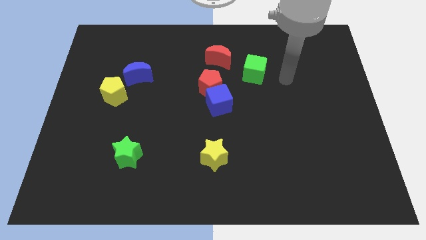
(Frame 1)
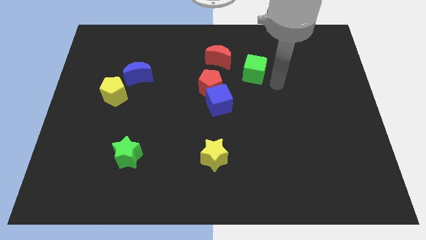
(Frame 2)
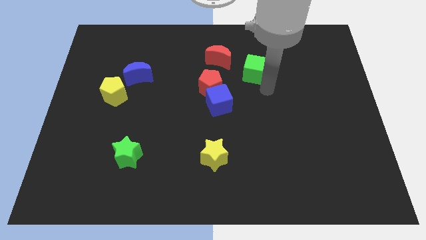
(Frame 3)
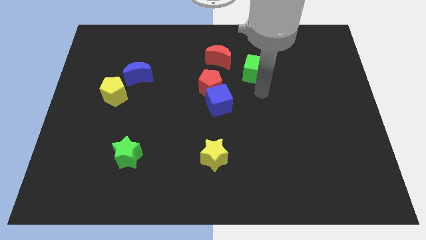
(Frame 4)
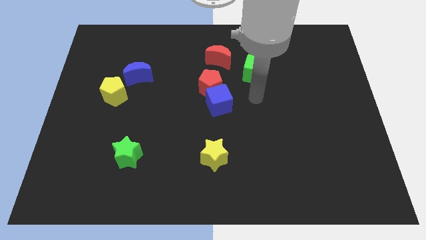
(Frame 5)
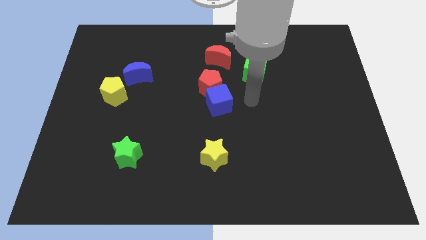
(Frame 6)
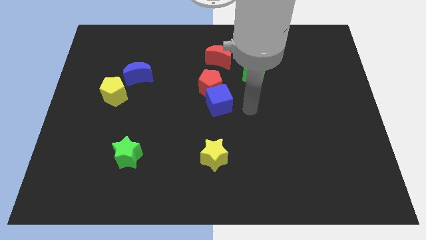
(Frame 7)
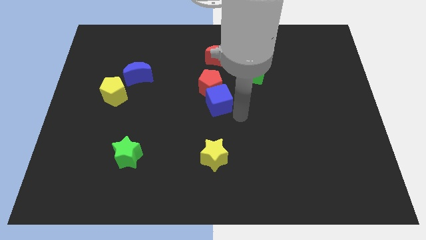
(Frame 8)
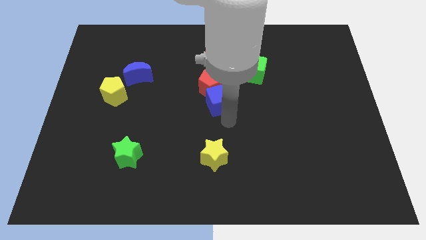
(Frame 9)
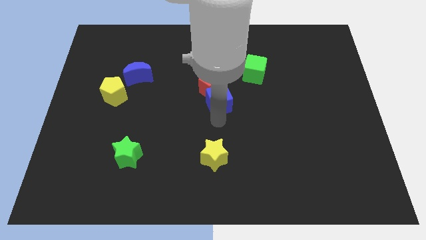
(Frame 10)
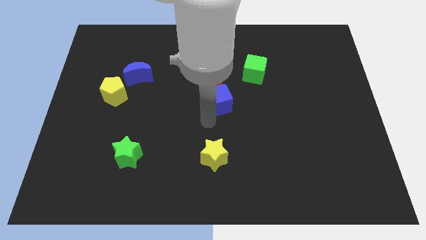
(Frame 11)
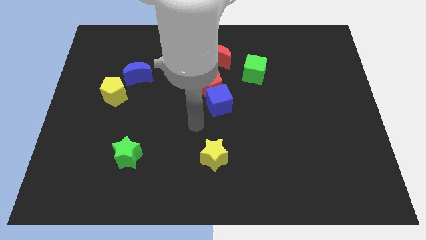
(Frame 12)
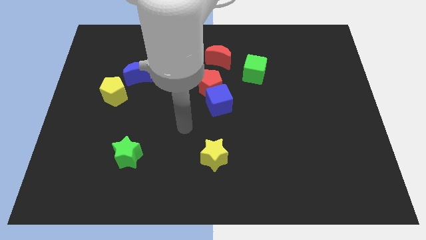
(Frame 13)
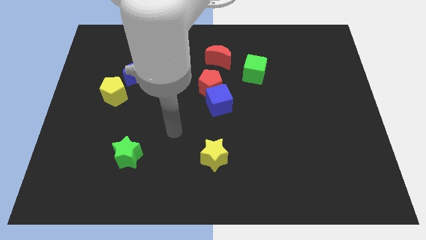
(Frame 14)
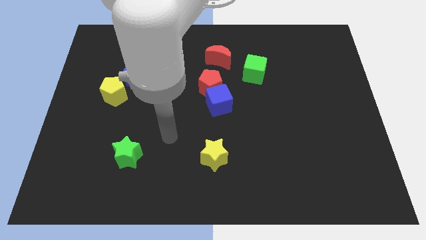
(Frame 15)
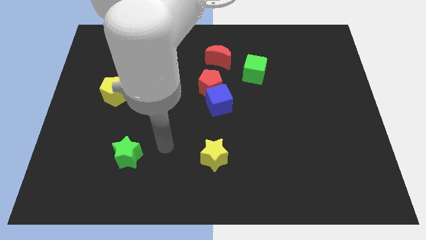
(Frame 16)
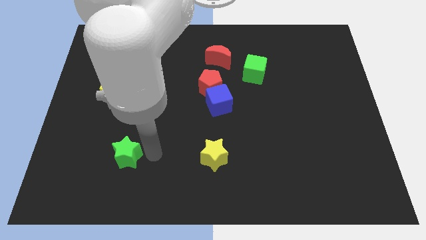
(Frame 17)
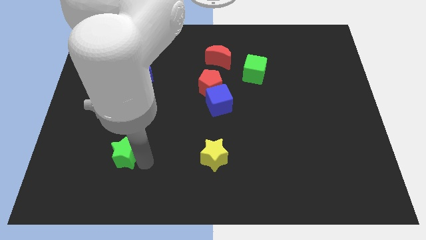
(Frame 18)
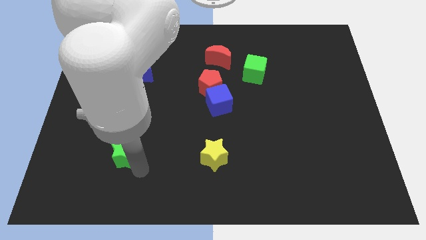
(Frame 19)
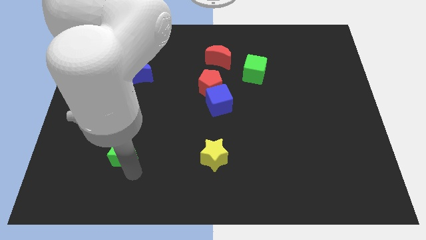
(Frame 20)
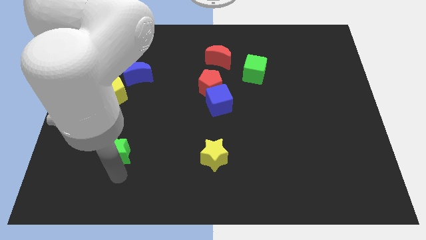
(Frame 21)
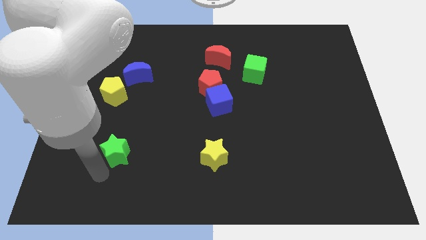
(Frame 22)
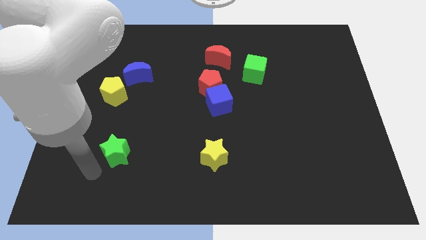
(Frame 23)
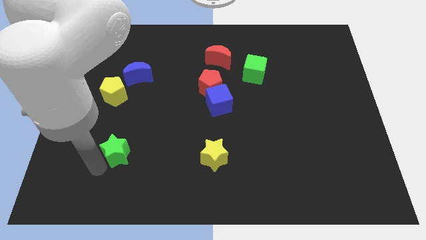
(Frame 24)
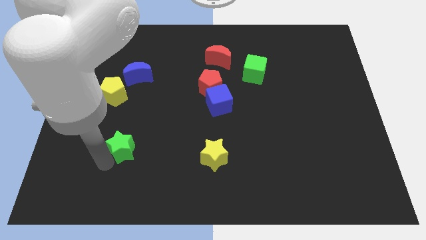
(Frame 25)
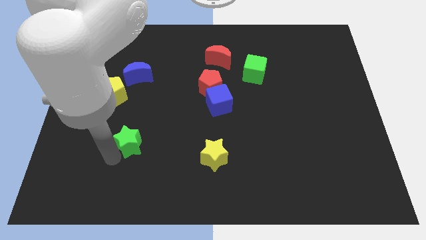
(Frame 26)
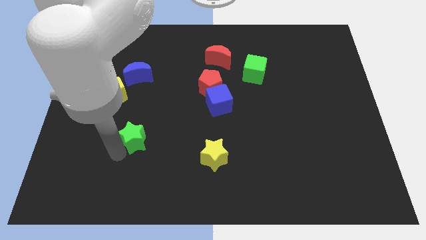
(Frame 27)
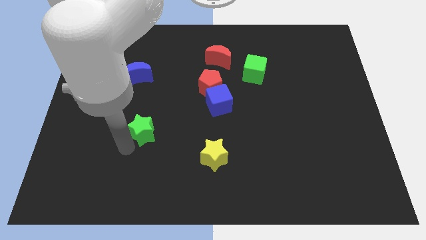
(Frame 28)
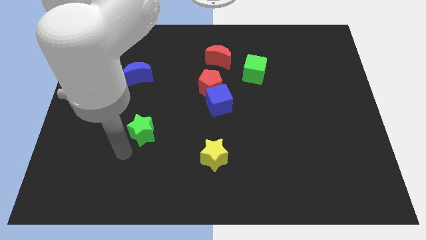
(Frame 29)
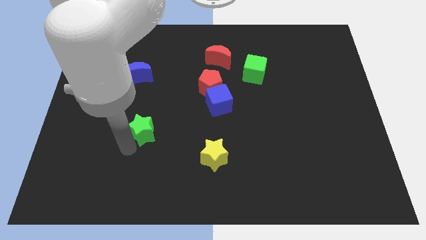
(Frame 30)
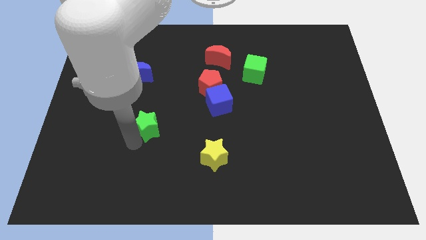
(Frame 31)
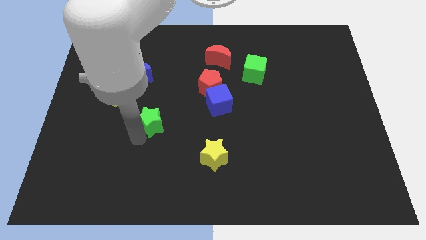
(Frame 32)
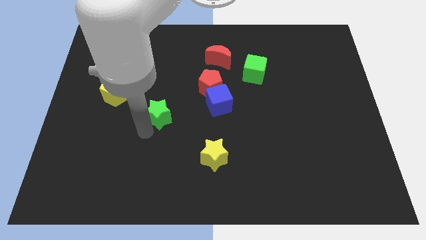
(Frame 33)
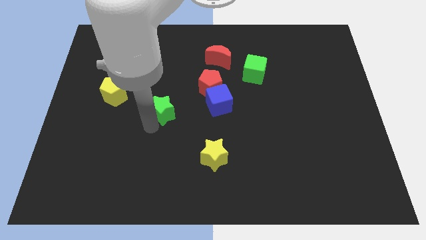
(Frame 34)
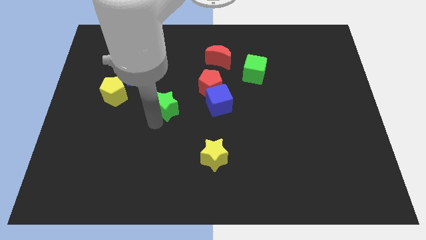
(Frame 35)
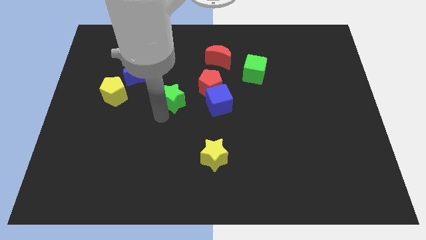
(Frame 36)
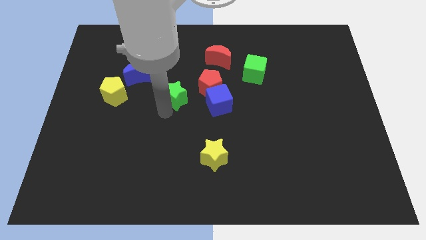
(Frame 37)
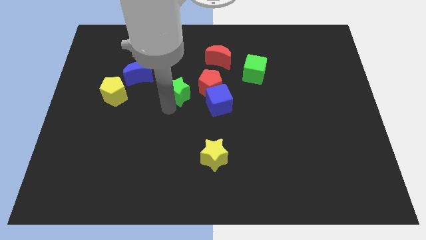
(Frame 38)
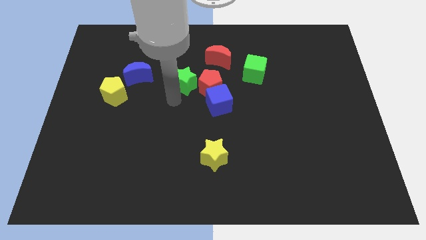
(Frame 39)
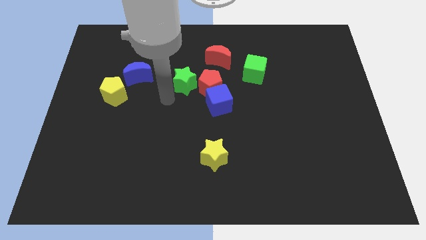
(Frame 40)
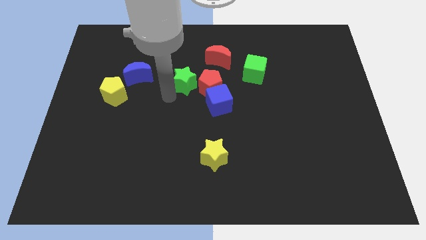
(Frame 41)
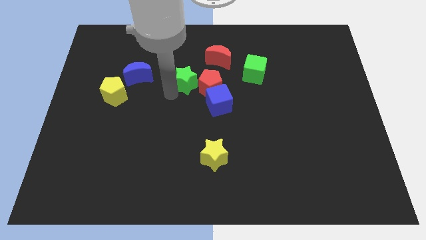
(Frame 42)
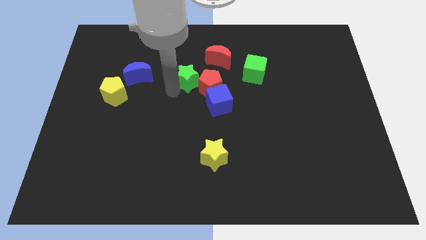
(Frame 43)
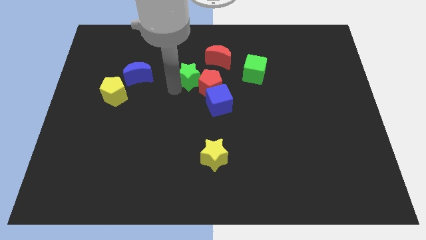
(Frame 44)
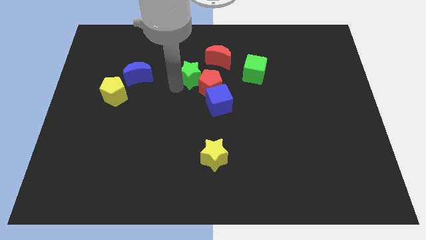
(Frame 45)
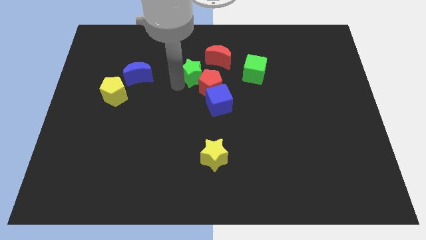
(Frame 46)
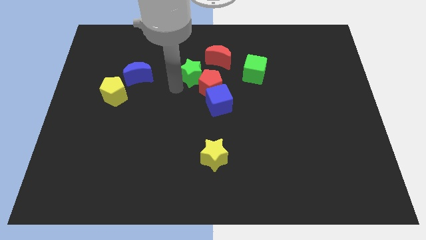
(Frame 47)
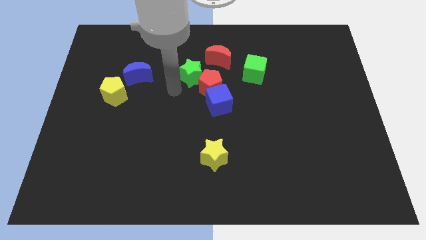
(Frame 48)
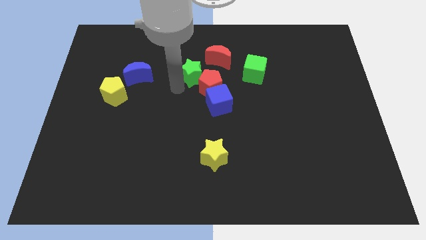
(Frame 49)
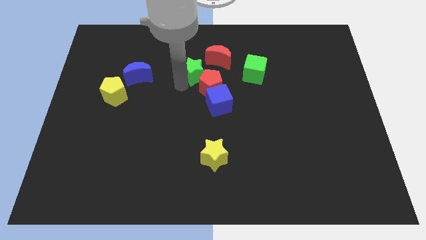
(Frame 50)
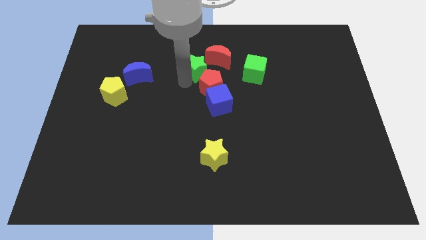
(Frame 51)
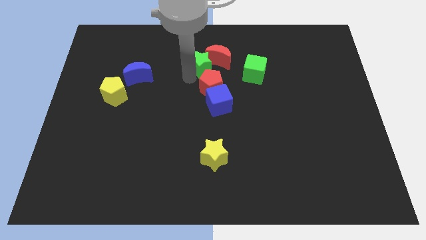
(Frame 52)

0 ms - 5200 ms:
move the green star towards the red moon

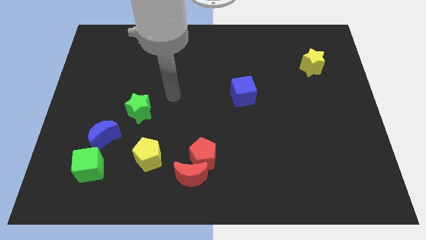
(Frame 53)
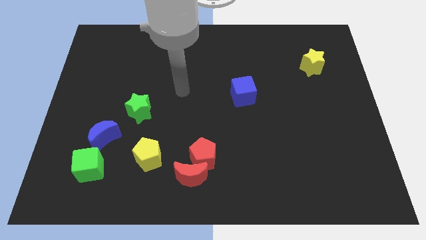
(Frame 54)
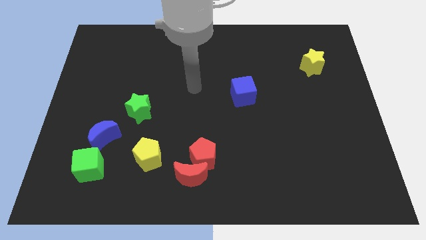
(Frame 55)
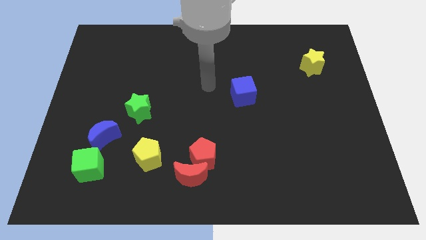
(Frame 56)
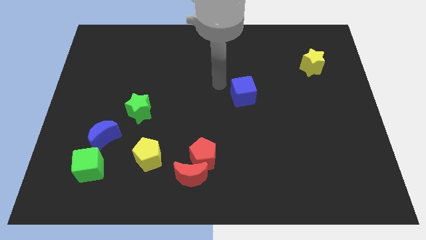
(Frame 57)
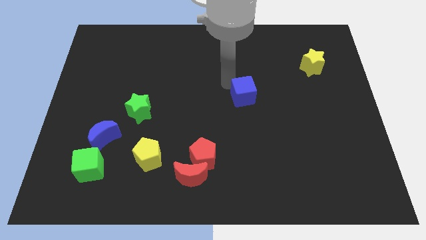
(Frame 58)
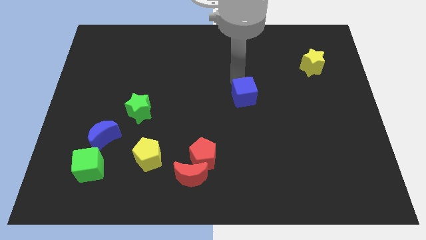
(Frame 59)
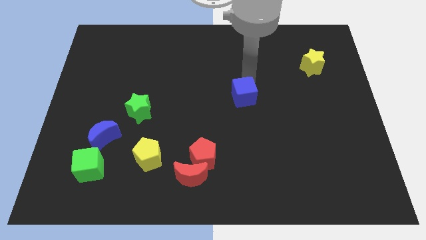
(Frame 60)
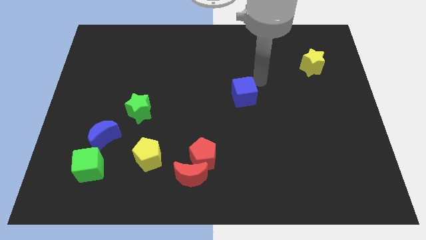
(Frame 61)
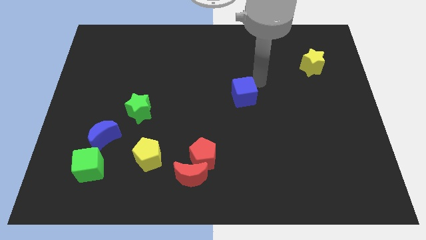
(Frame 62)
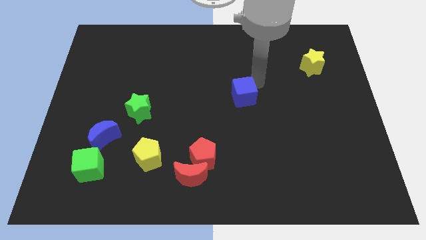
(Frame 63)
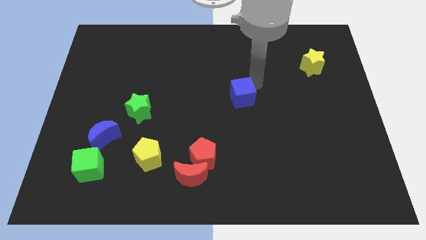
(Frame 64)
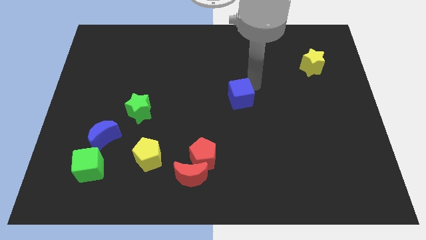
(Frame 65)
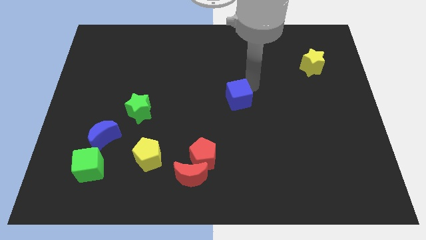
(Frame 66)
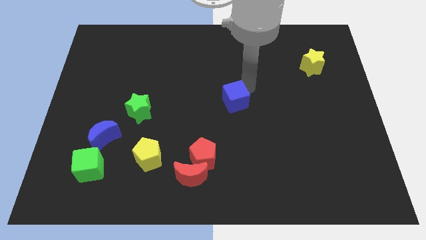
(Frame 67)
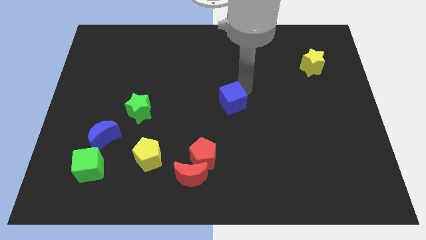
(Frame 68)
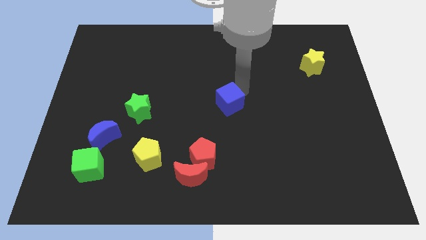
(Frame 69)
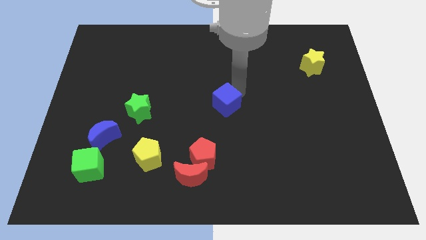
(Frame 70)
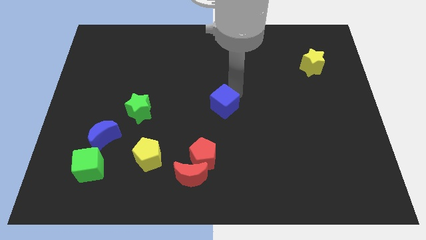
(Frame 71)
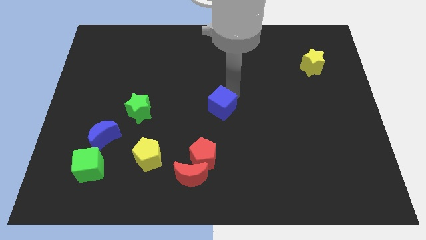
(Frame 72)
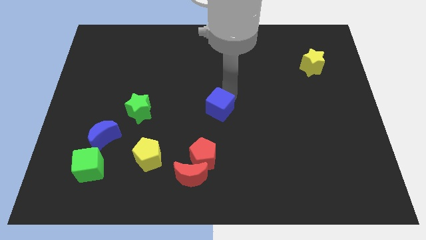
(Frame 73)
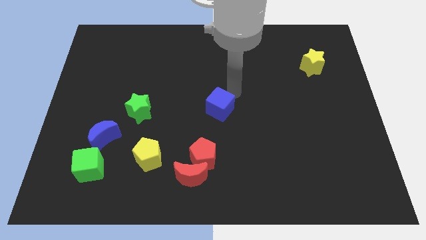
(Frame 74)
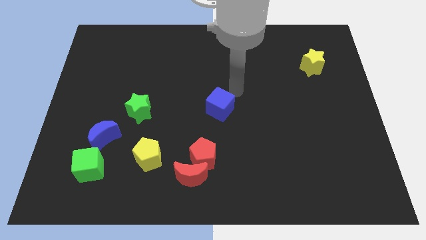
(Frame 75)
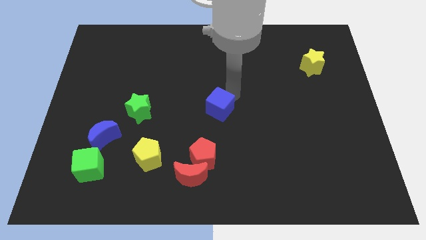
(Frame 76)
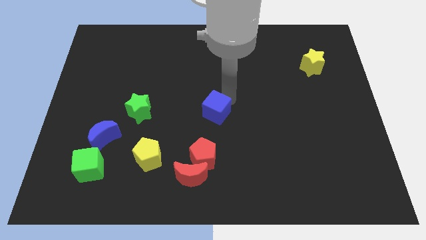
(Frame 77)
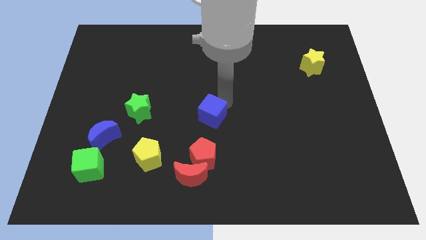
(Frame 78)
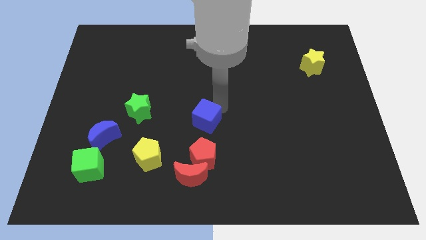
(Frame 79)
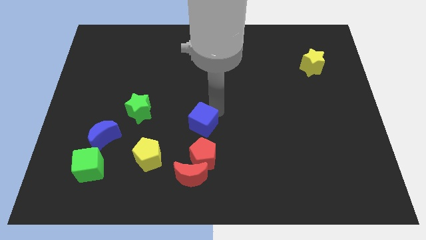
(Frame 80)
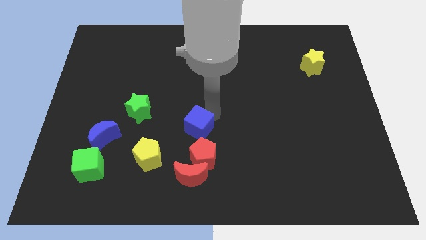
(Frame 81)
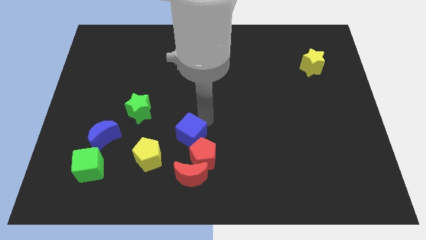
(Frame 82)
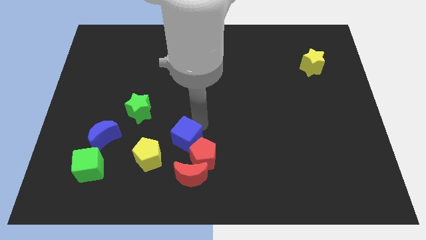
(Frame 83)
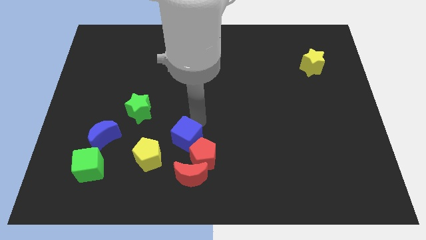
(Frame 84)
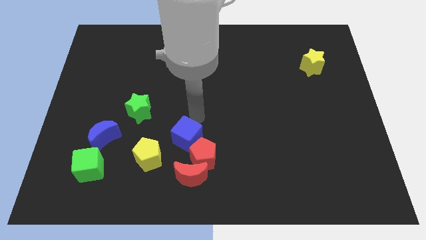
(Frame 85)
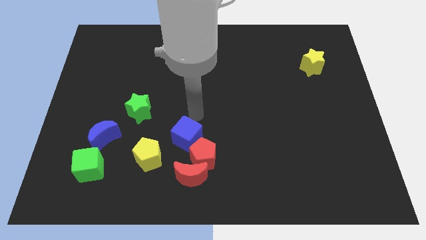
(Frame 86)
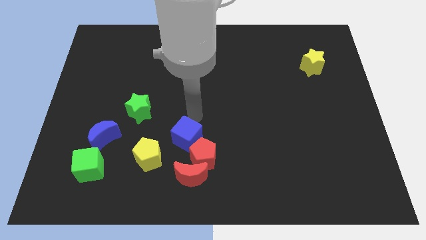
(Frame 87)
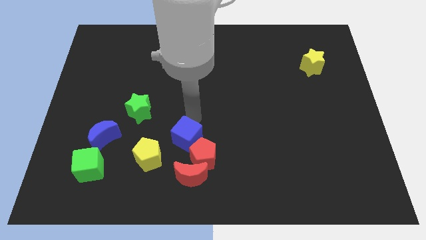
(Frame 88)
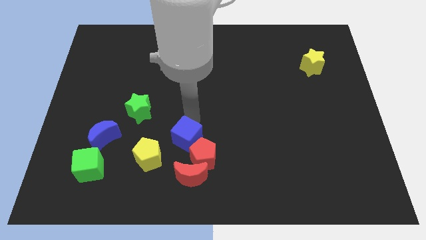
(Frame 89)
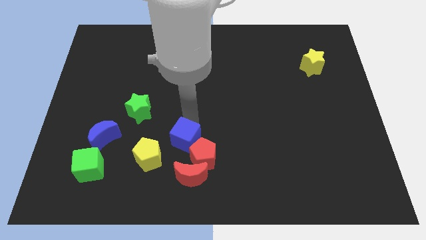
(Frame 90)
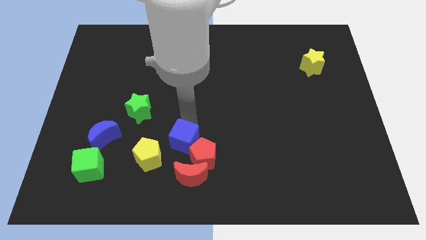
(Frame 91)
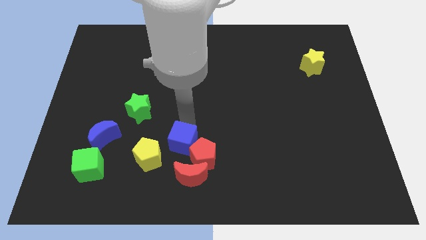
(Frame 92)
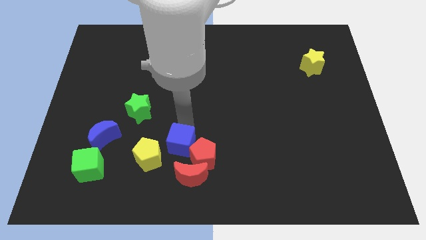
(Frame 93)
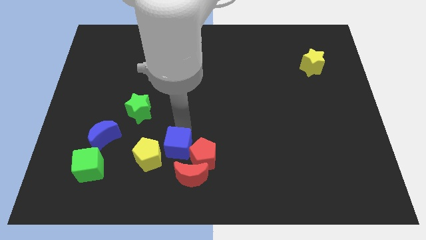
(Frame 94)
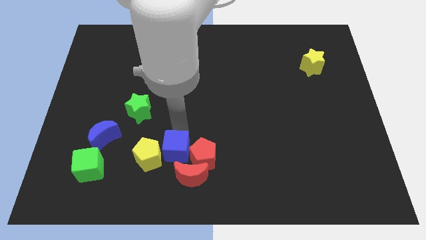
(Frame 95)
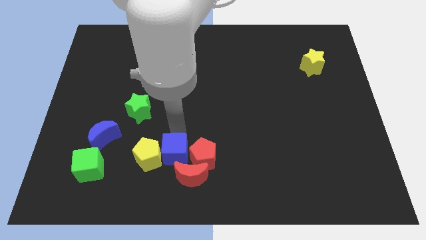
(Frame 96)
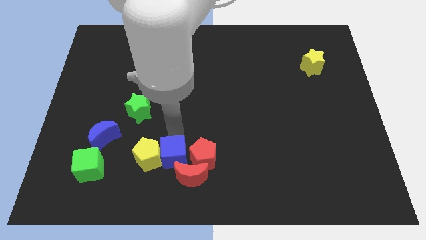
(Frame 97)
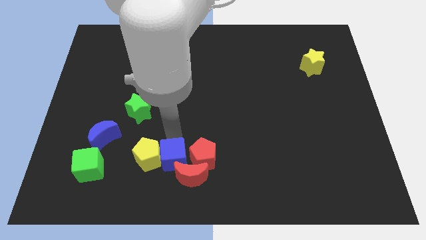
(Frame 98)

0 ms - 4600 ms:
put the blue cube towards the red moon
